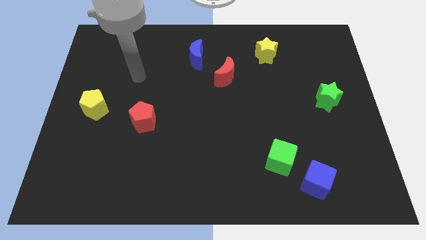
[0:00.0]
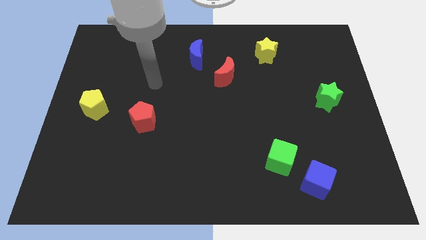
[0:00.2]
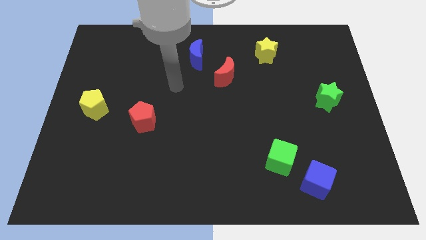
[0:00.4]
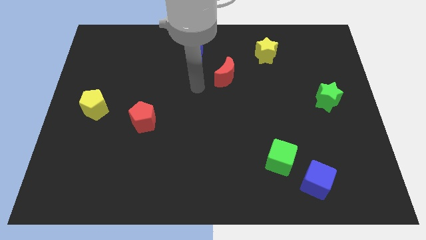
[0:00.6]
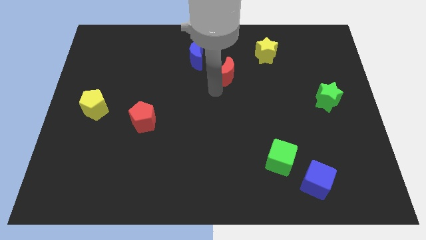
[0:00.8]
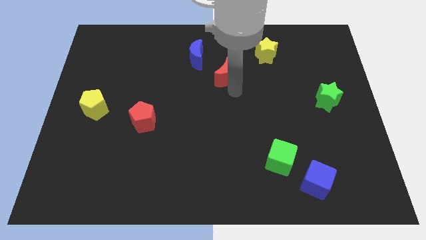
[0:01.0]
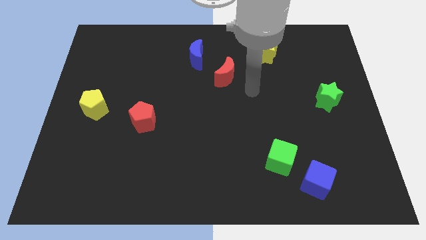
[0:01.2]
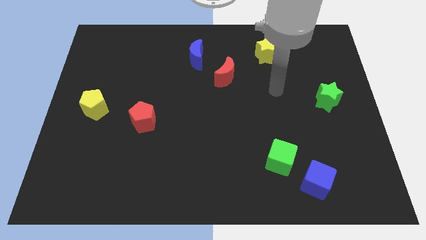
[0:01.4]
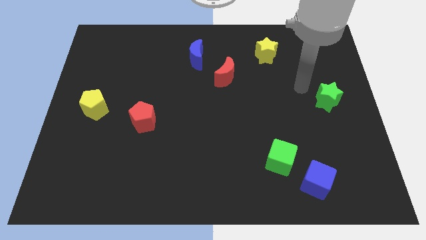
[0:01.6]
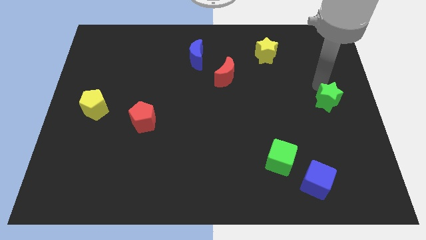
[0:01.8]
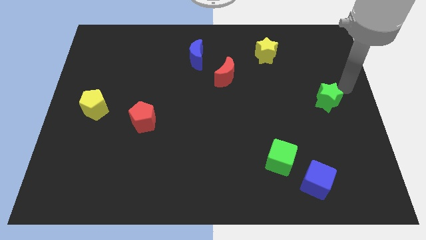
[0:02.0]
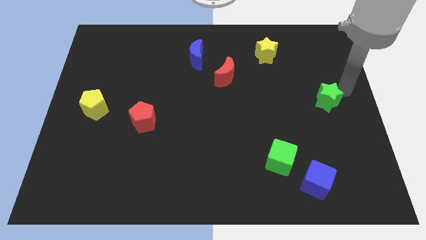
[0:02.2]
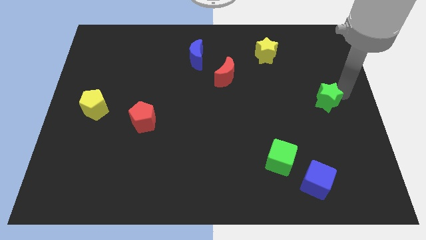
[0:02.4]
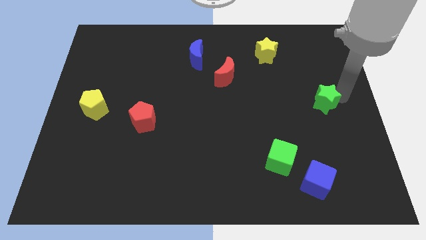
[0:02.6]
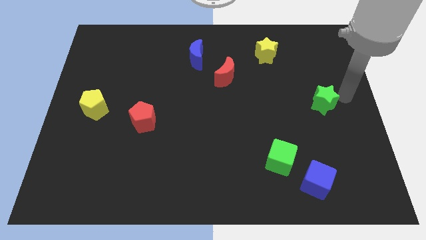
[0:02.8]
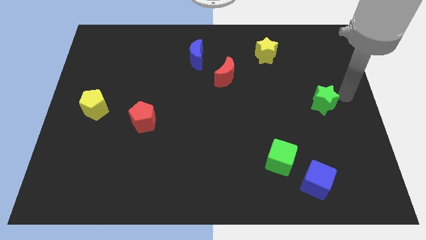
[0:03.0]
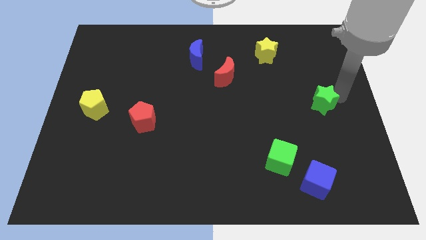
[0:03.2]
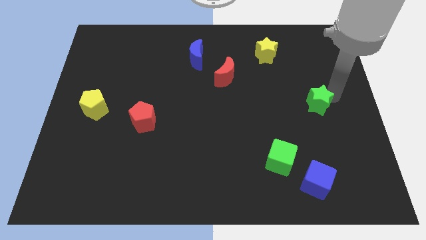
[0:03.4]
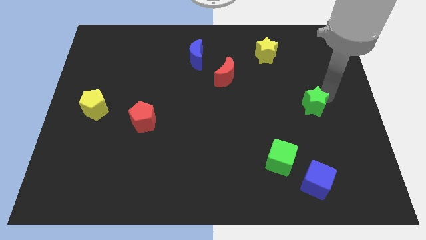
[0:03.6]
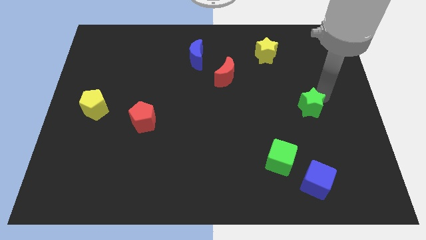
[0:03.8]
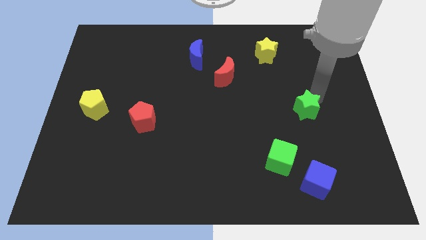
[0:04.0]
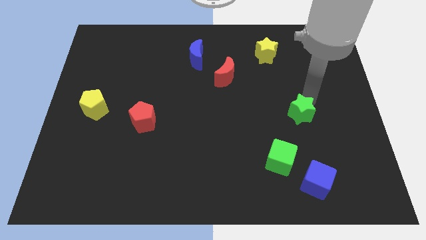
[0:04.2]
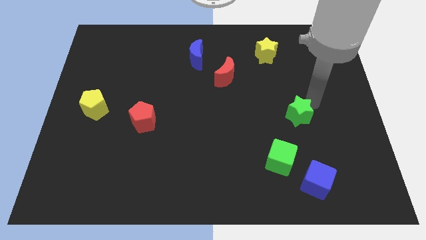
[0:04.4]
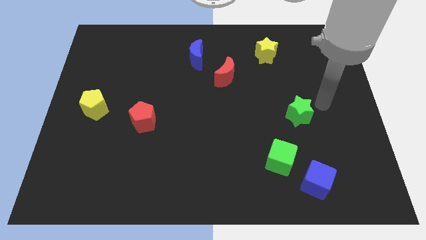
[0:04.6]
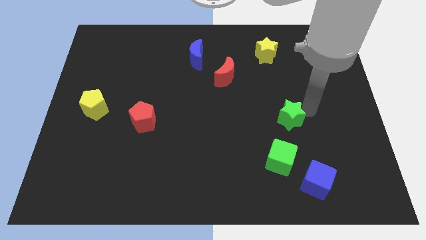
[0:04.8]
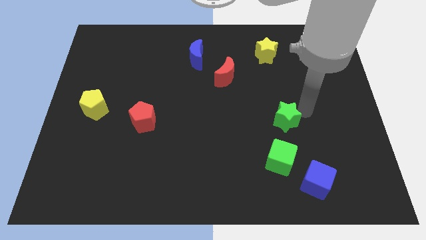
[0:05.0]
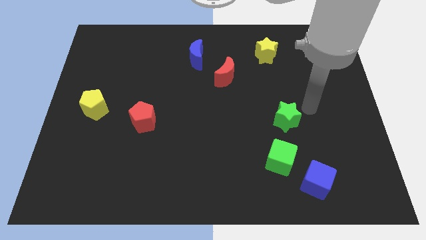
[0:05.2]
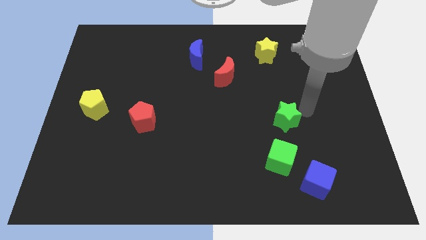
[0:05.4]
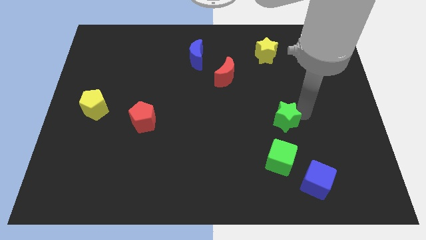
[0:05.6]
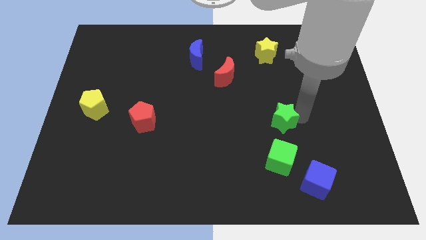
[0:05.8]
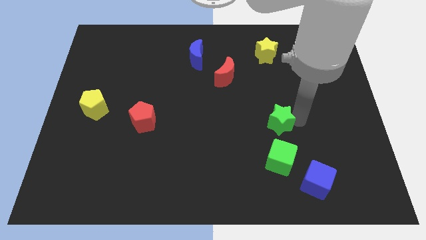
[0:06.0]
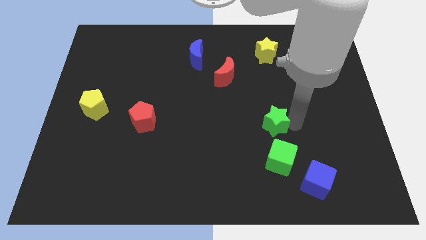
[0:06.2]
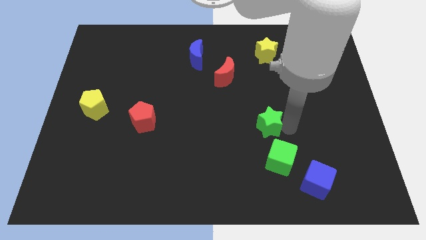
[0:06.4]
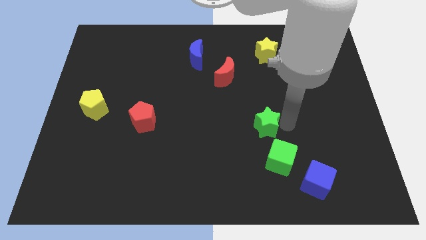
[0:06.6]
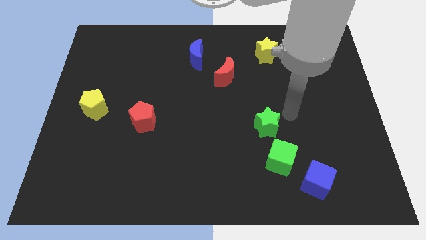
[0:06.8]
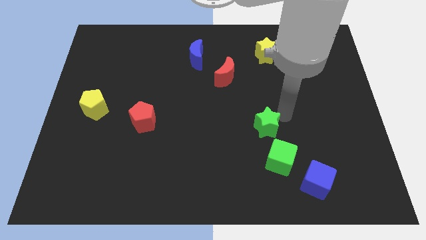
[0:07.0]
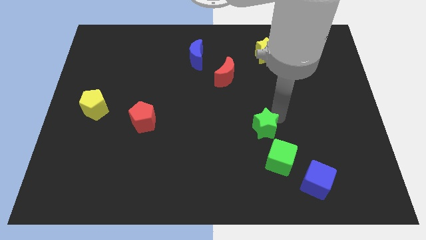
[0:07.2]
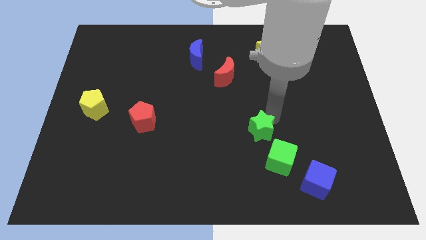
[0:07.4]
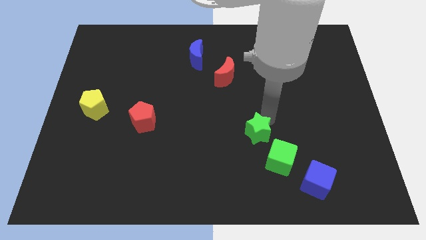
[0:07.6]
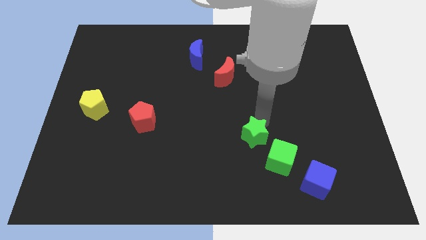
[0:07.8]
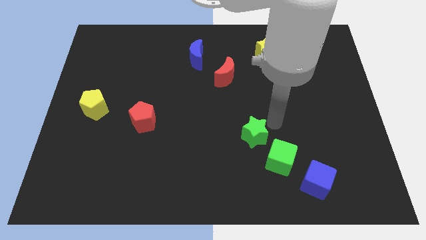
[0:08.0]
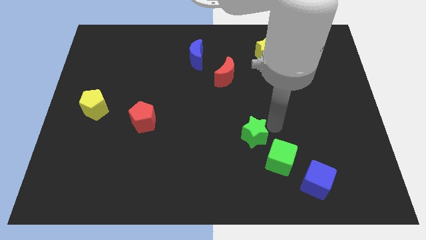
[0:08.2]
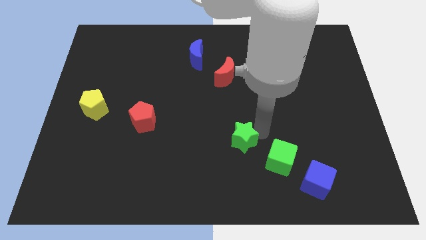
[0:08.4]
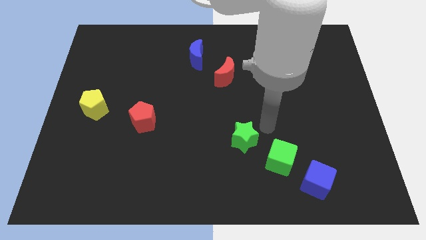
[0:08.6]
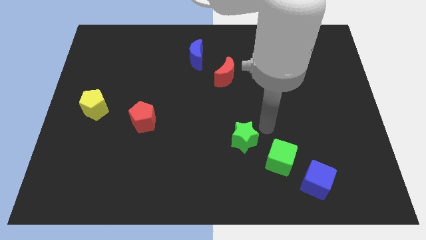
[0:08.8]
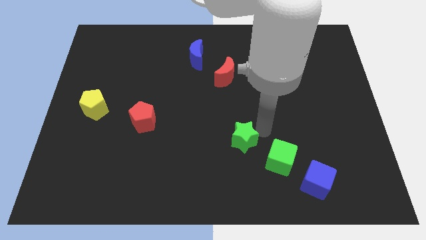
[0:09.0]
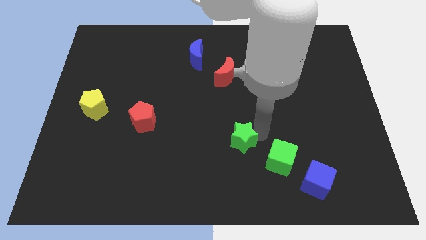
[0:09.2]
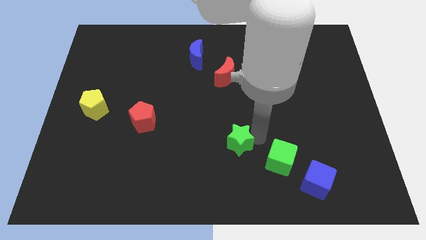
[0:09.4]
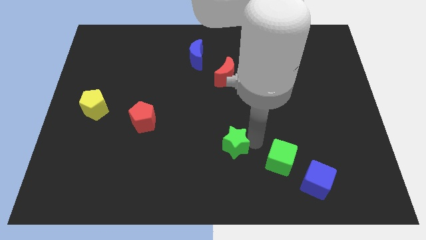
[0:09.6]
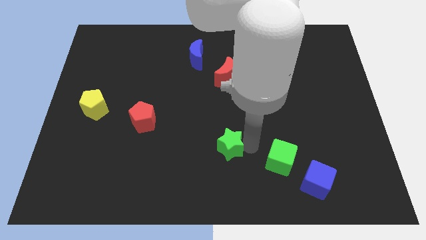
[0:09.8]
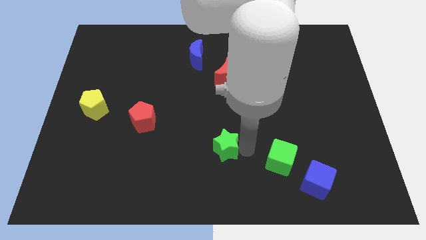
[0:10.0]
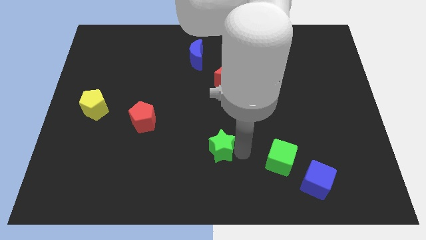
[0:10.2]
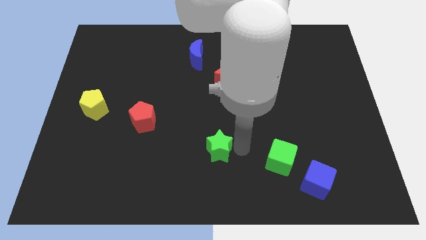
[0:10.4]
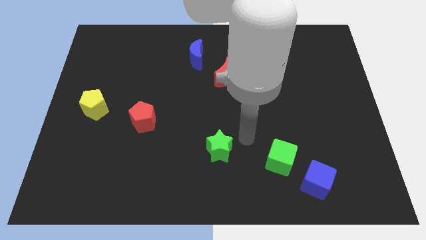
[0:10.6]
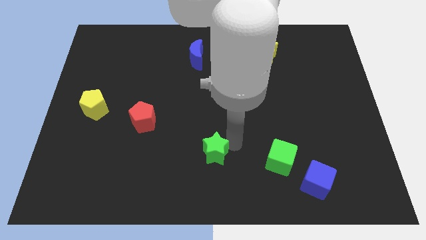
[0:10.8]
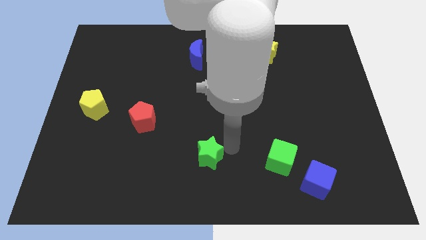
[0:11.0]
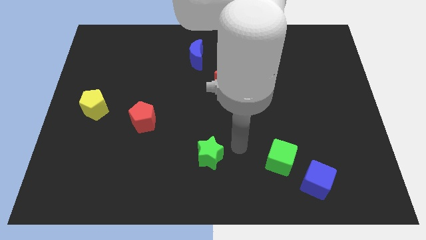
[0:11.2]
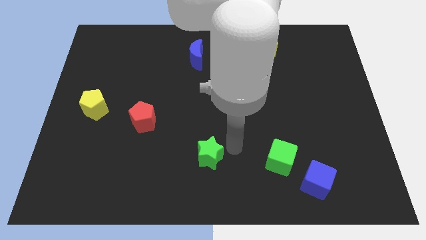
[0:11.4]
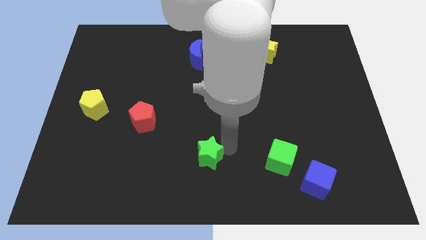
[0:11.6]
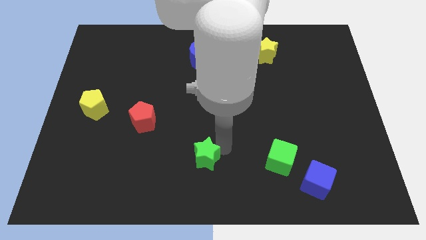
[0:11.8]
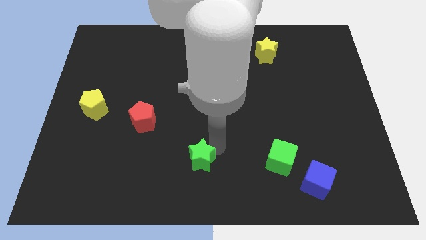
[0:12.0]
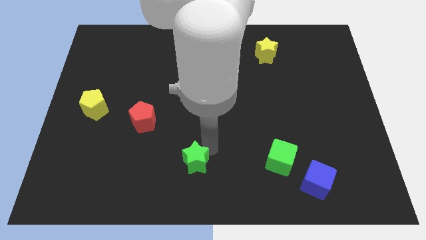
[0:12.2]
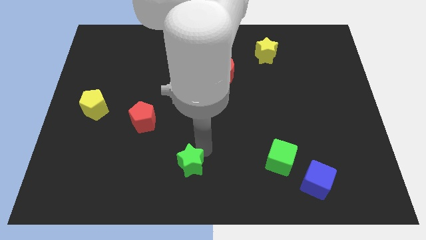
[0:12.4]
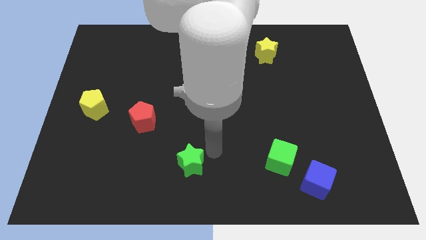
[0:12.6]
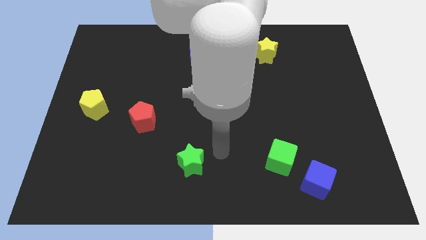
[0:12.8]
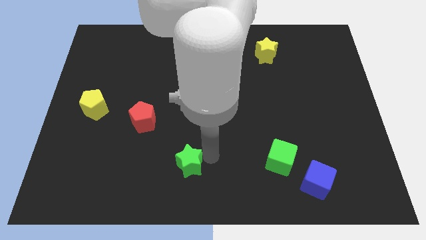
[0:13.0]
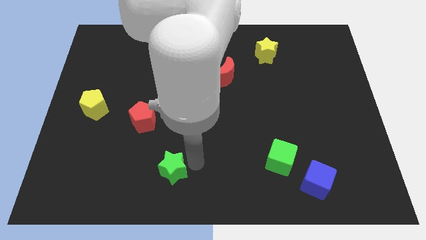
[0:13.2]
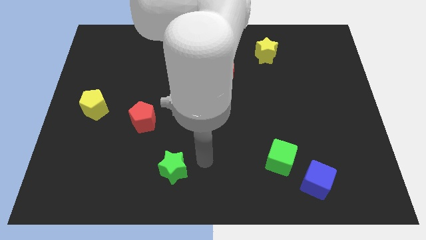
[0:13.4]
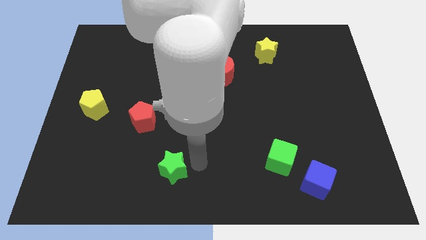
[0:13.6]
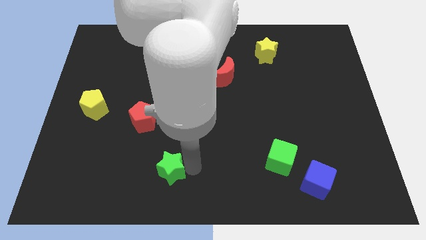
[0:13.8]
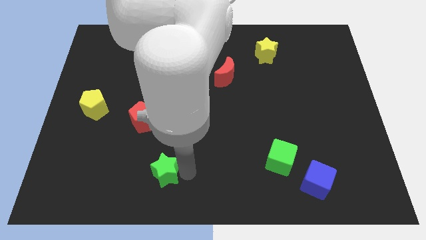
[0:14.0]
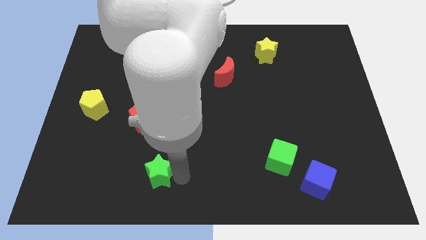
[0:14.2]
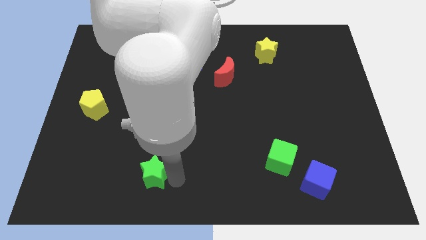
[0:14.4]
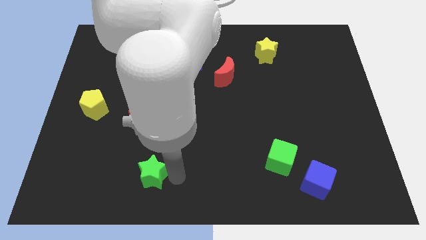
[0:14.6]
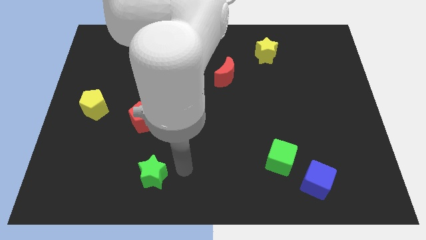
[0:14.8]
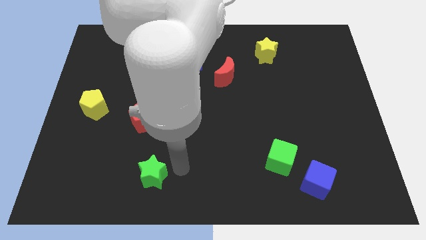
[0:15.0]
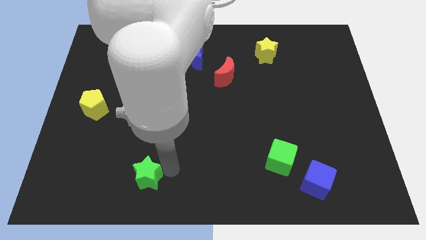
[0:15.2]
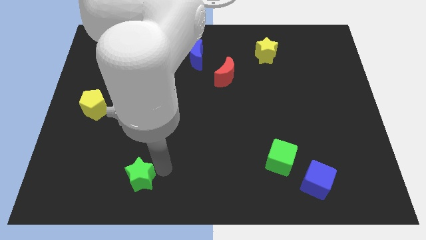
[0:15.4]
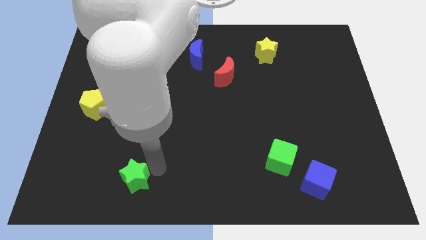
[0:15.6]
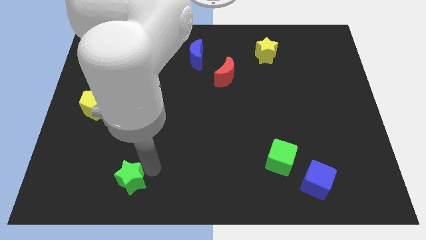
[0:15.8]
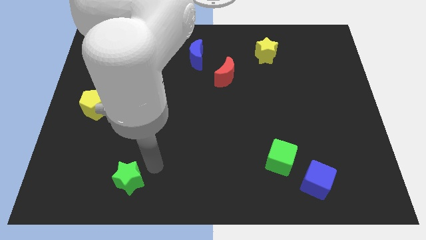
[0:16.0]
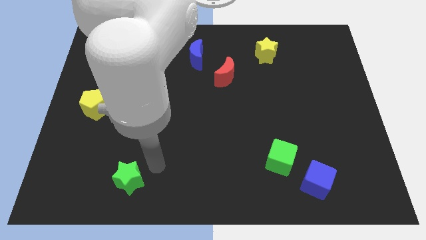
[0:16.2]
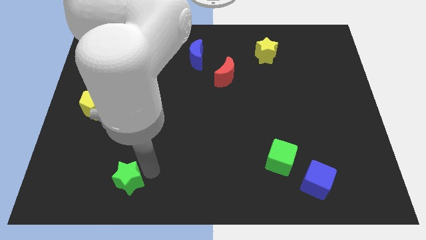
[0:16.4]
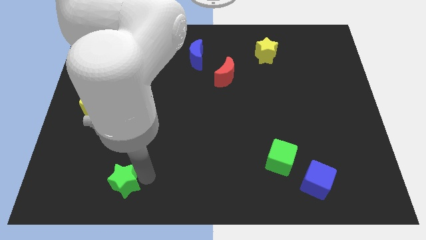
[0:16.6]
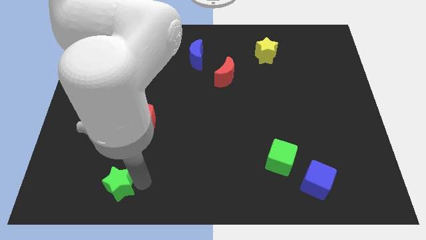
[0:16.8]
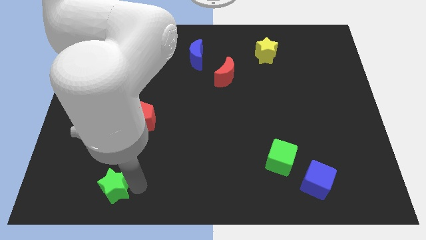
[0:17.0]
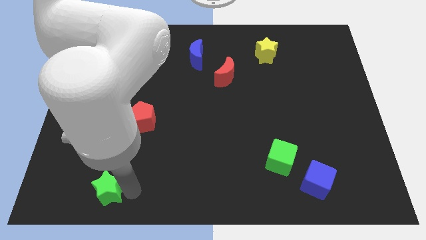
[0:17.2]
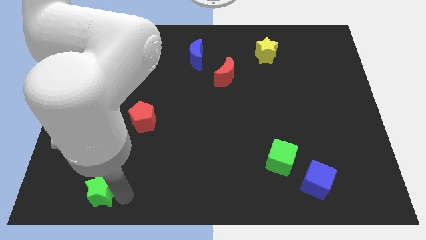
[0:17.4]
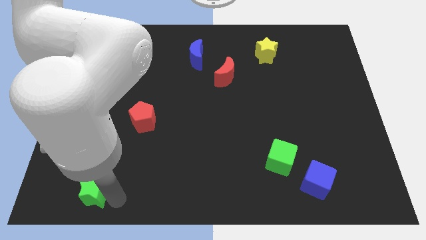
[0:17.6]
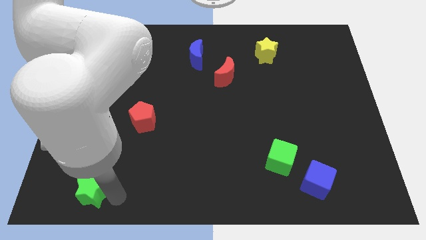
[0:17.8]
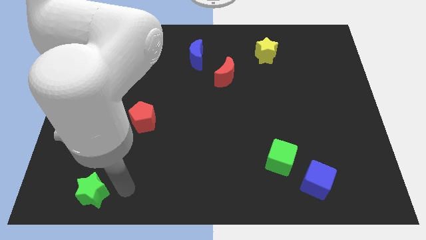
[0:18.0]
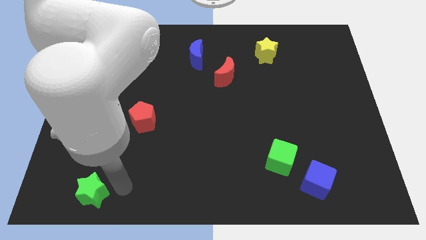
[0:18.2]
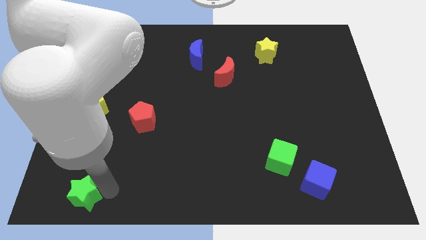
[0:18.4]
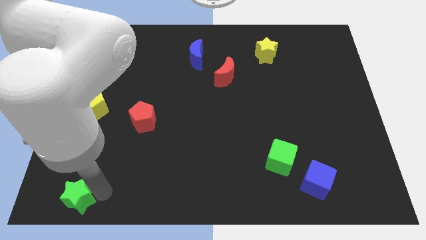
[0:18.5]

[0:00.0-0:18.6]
put the green star to the bottom left corner
